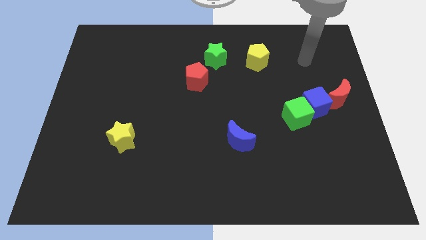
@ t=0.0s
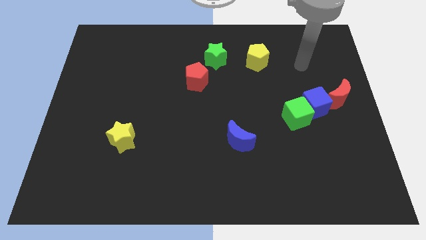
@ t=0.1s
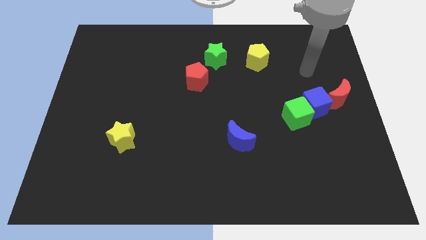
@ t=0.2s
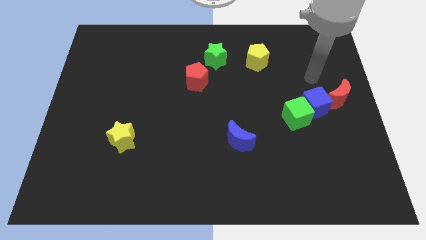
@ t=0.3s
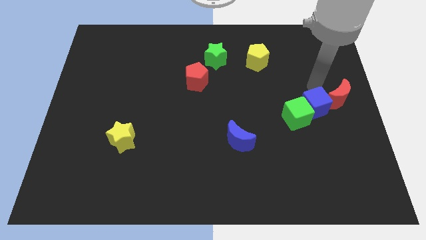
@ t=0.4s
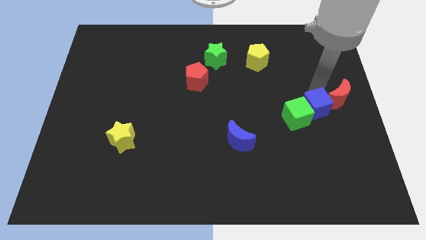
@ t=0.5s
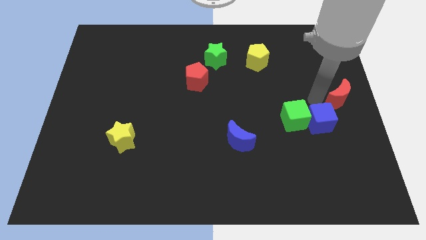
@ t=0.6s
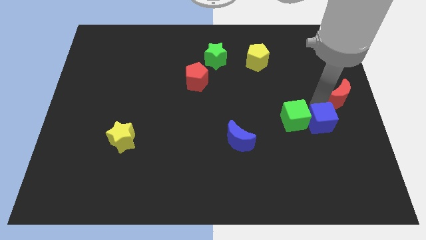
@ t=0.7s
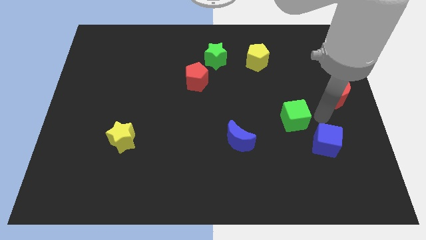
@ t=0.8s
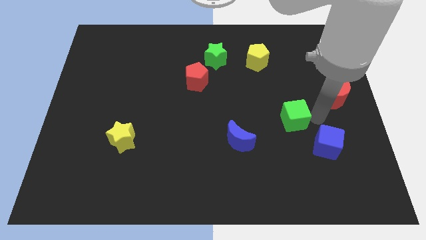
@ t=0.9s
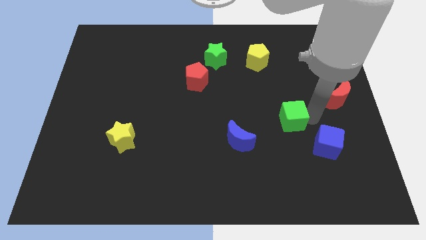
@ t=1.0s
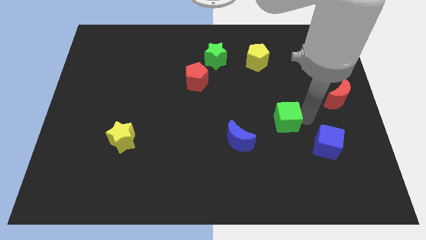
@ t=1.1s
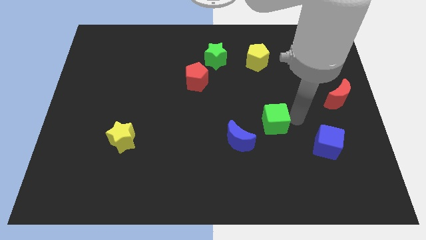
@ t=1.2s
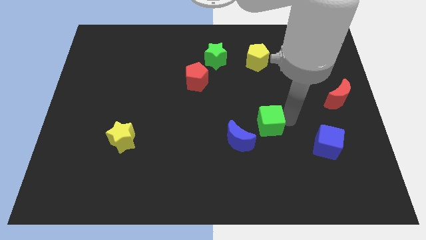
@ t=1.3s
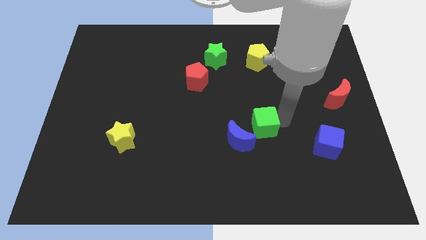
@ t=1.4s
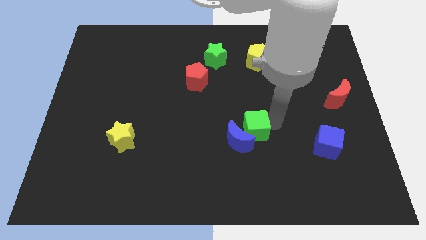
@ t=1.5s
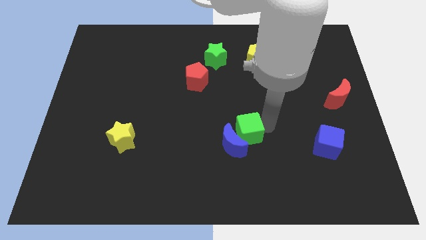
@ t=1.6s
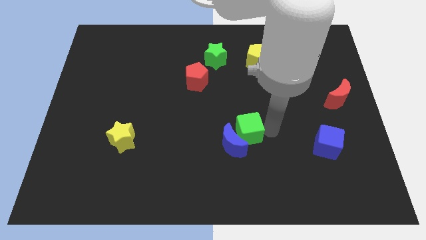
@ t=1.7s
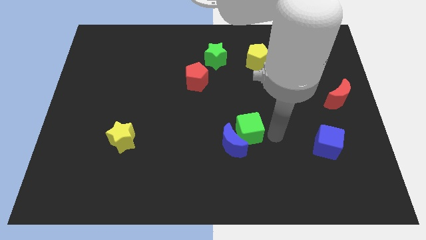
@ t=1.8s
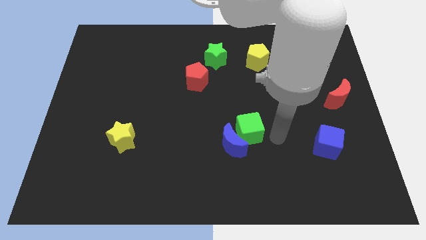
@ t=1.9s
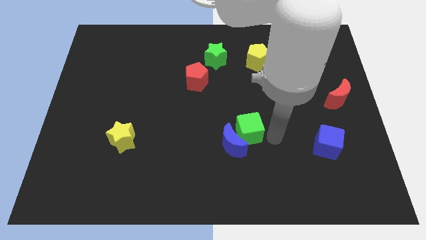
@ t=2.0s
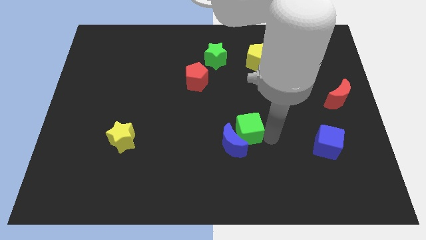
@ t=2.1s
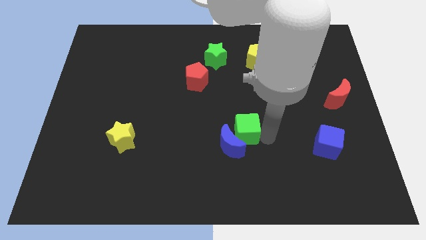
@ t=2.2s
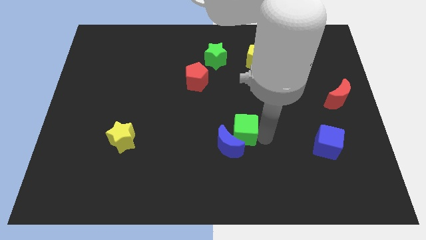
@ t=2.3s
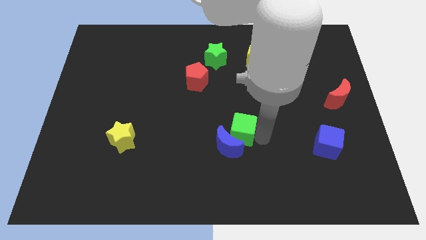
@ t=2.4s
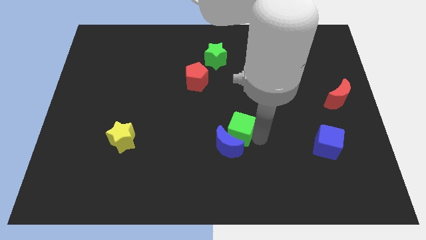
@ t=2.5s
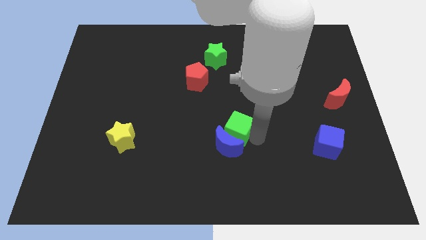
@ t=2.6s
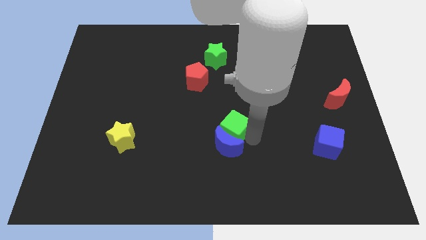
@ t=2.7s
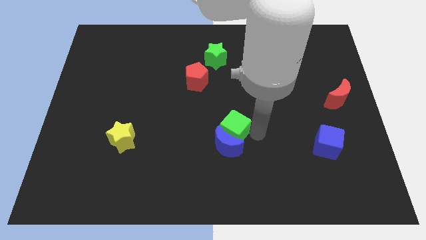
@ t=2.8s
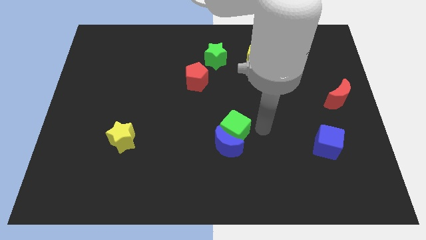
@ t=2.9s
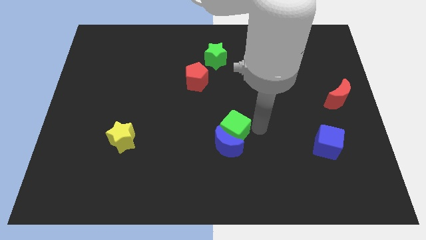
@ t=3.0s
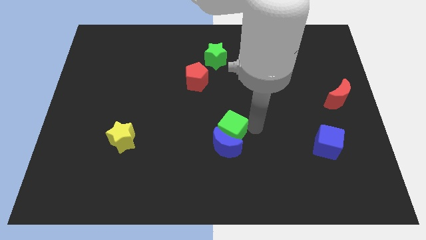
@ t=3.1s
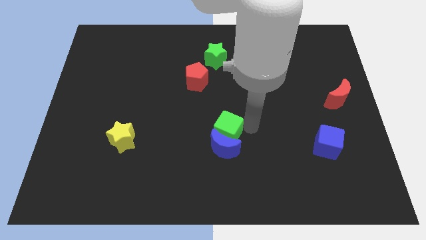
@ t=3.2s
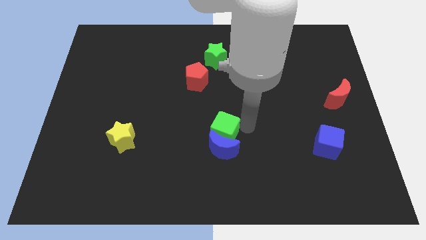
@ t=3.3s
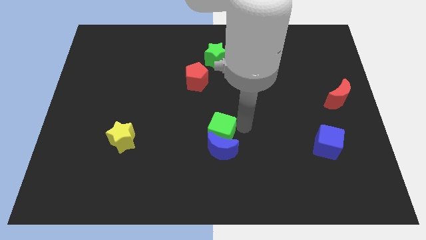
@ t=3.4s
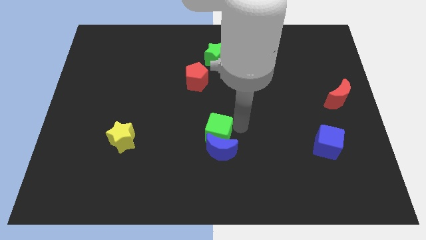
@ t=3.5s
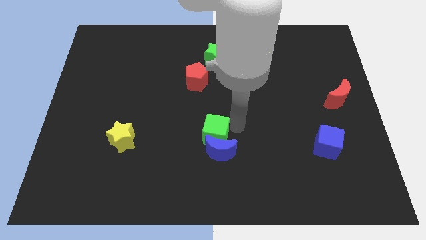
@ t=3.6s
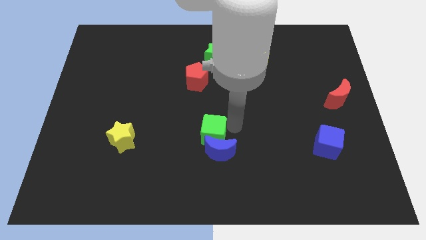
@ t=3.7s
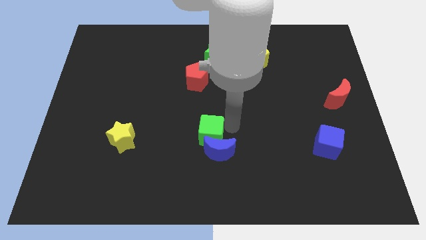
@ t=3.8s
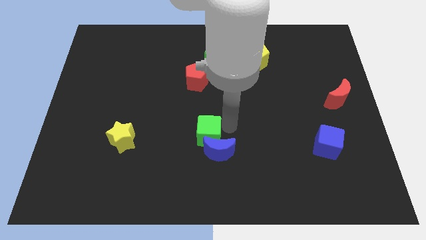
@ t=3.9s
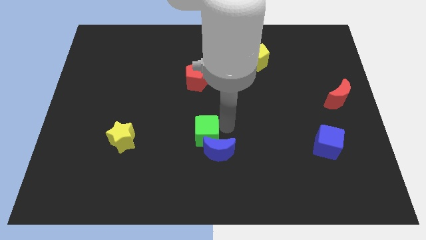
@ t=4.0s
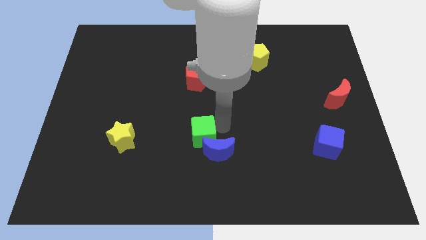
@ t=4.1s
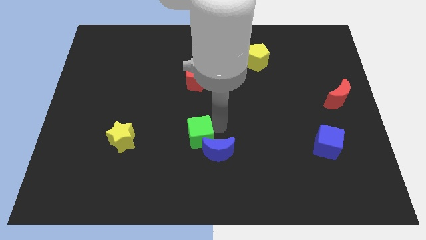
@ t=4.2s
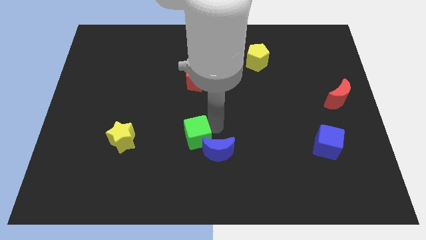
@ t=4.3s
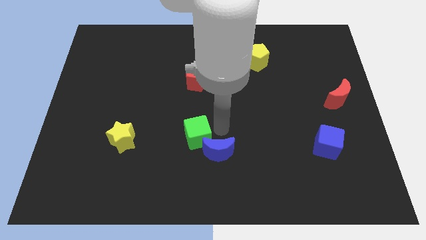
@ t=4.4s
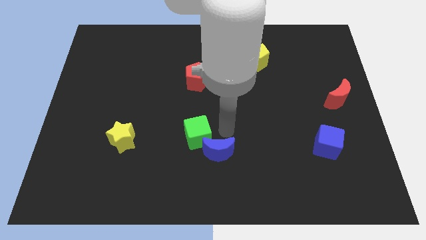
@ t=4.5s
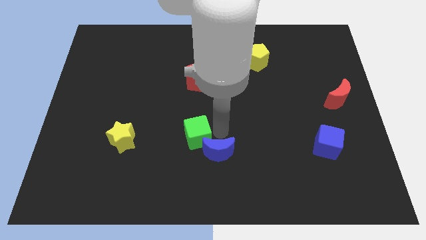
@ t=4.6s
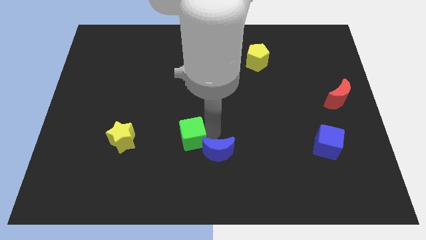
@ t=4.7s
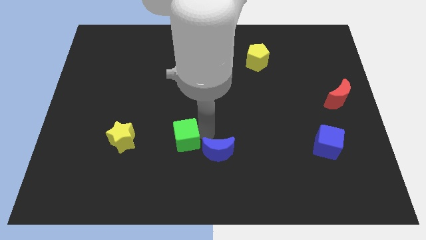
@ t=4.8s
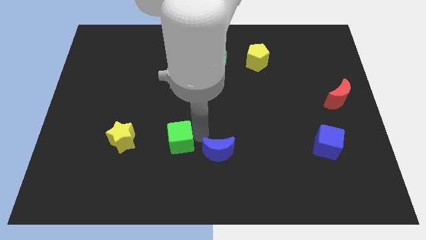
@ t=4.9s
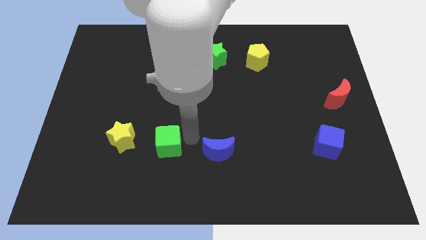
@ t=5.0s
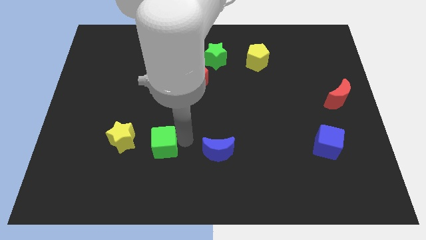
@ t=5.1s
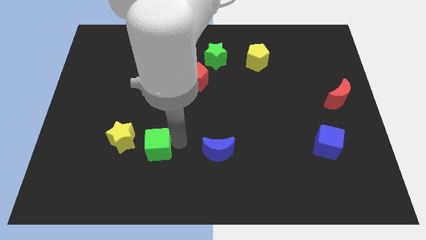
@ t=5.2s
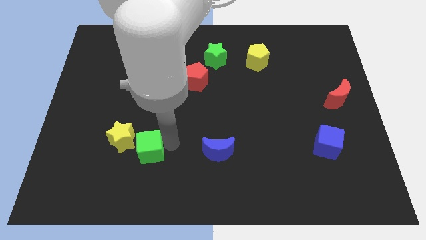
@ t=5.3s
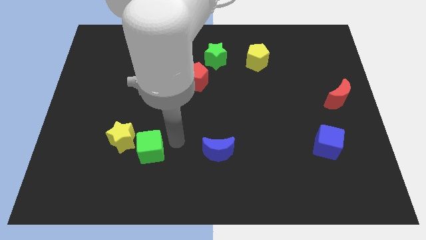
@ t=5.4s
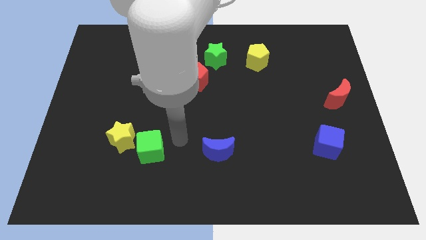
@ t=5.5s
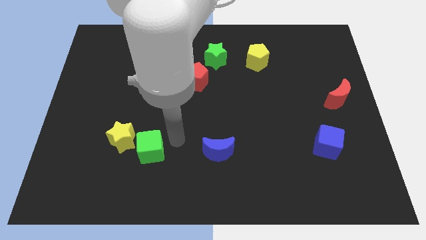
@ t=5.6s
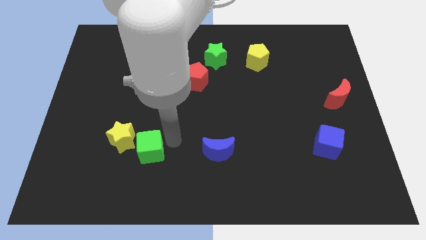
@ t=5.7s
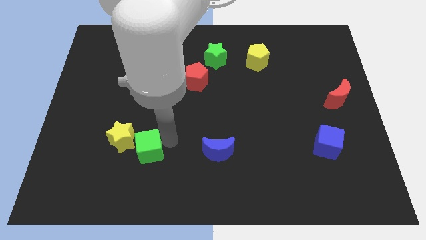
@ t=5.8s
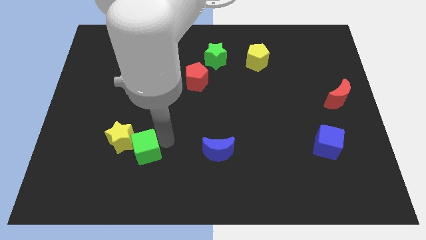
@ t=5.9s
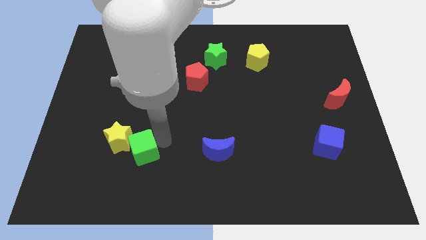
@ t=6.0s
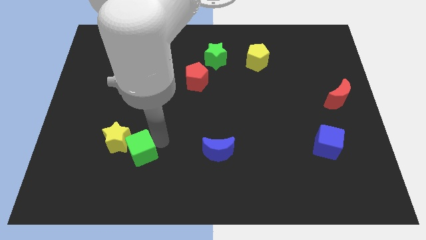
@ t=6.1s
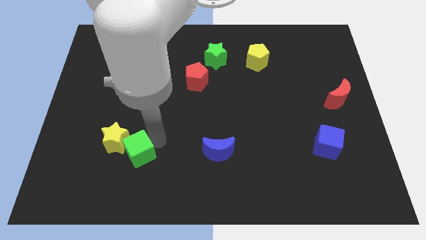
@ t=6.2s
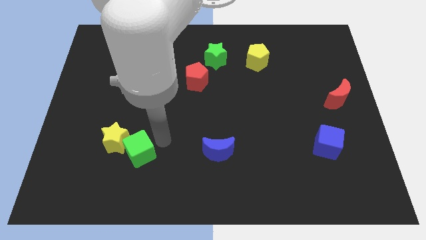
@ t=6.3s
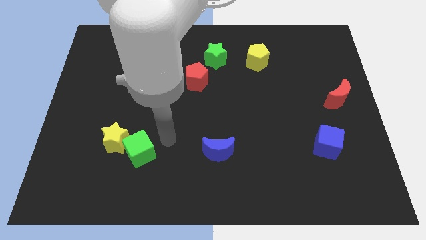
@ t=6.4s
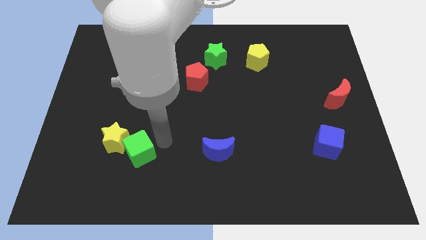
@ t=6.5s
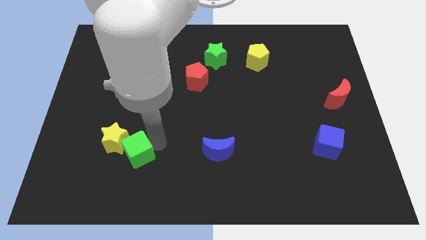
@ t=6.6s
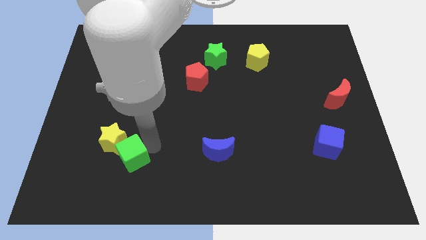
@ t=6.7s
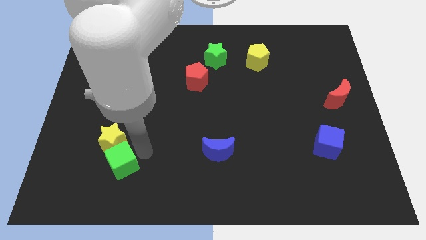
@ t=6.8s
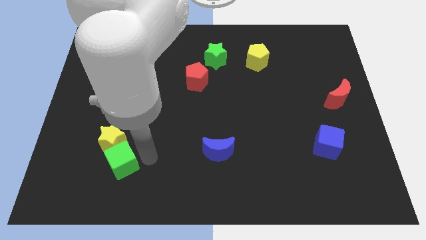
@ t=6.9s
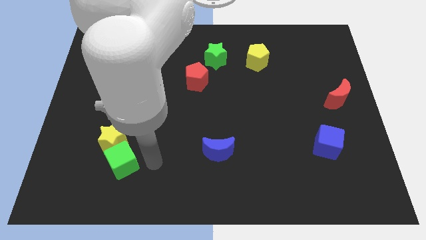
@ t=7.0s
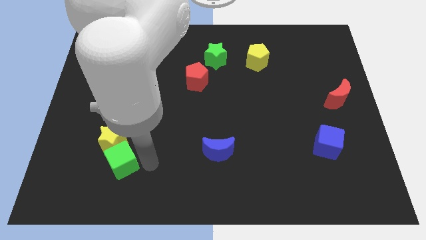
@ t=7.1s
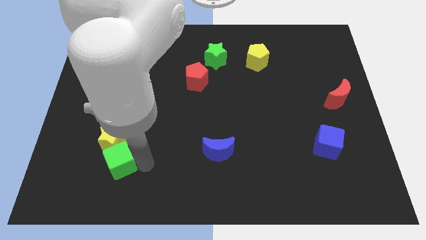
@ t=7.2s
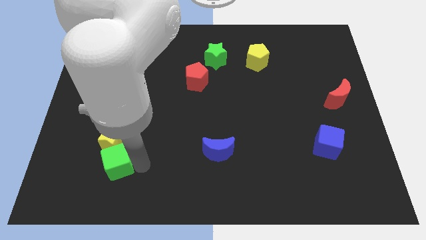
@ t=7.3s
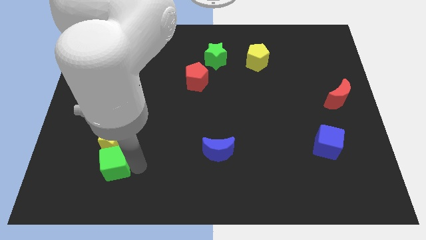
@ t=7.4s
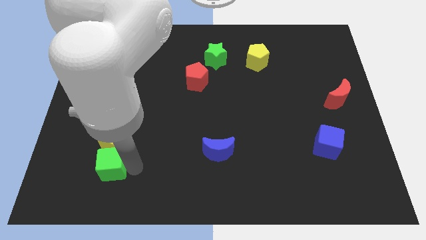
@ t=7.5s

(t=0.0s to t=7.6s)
put the green cube diagonally down and to the left of the yellow star
